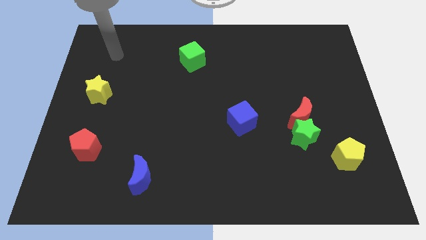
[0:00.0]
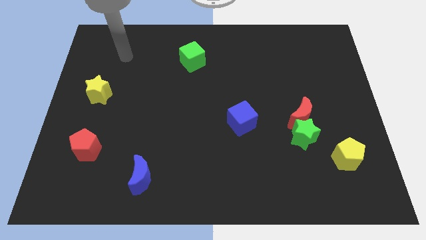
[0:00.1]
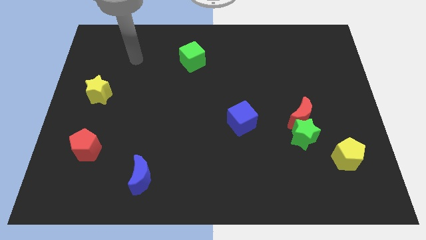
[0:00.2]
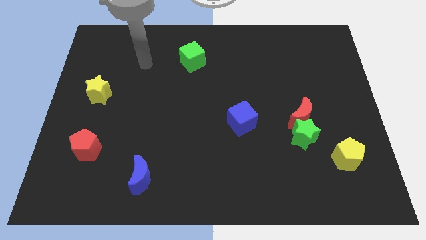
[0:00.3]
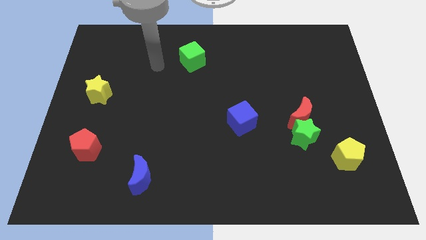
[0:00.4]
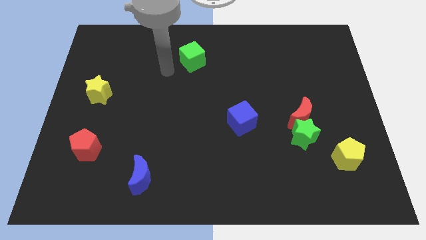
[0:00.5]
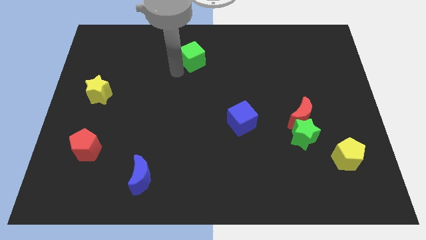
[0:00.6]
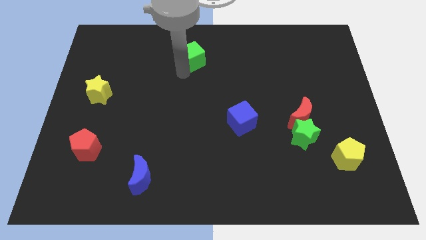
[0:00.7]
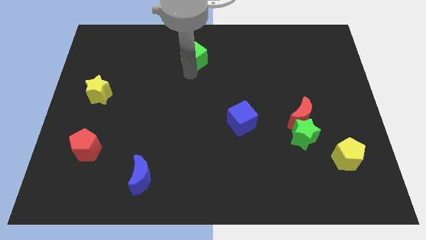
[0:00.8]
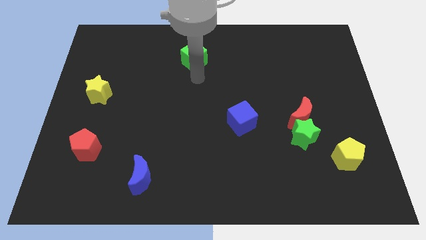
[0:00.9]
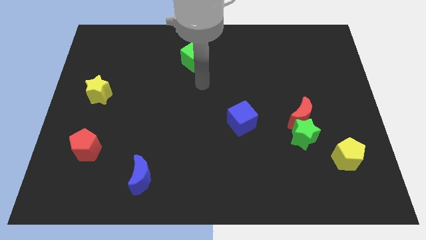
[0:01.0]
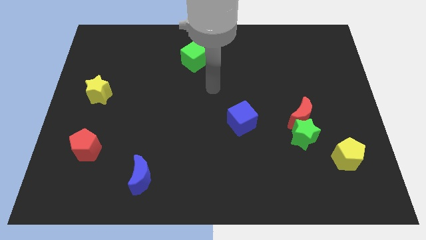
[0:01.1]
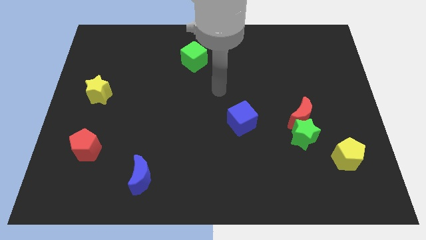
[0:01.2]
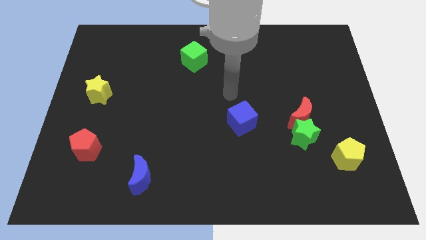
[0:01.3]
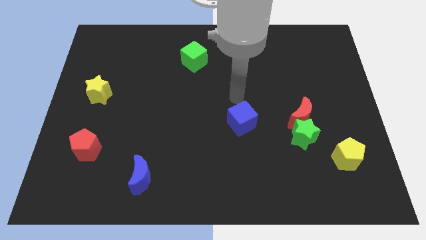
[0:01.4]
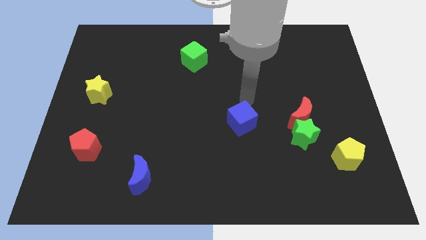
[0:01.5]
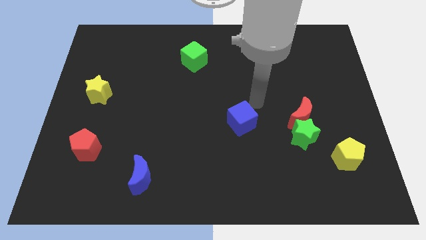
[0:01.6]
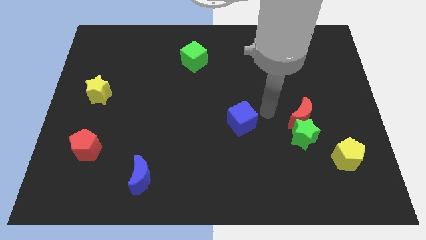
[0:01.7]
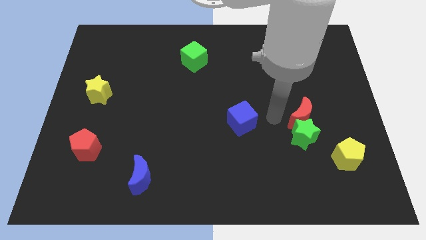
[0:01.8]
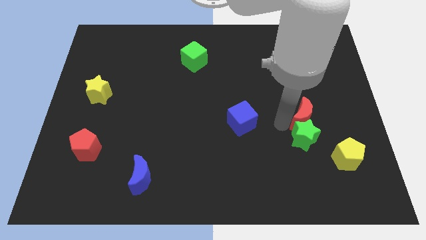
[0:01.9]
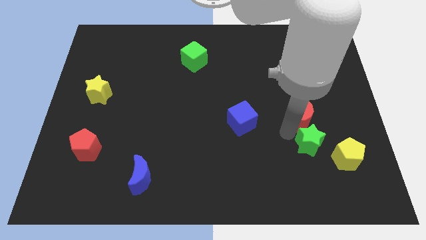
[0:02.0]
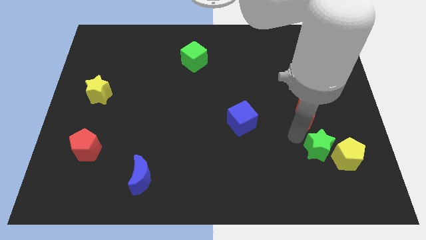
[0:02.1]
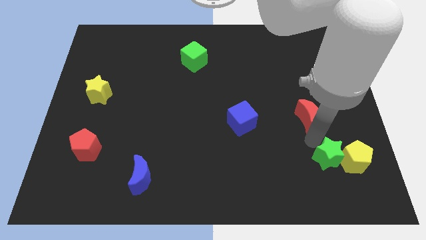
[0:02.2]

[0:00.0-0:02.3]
pull the red moon apart from the green star

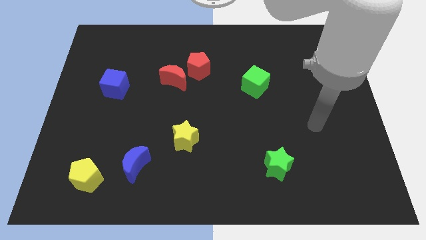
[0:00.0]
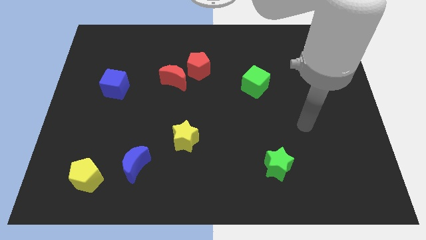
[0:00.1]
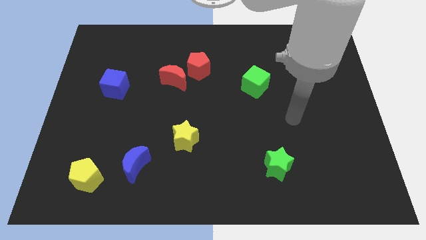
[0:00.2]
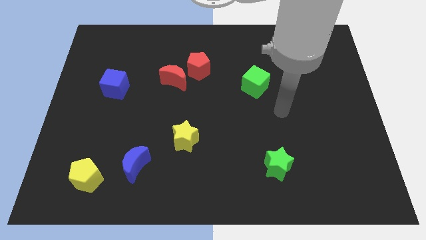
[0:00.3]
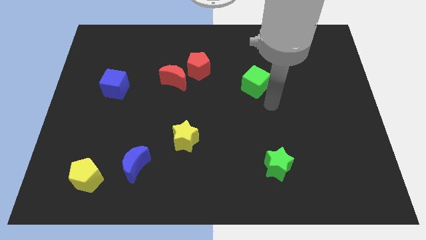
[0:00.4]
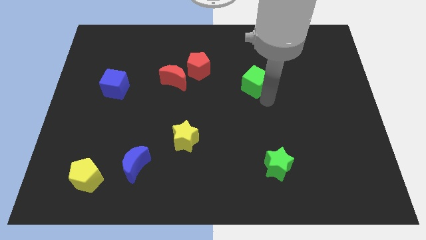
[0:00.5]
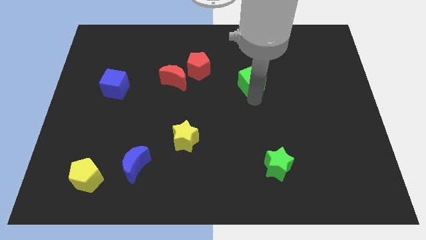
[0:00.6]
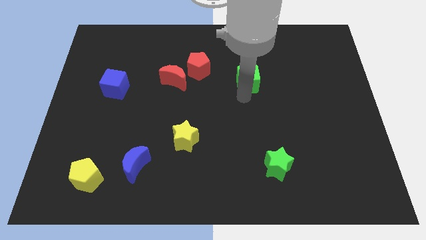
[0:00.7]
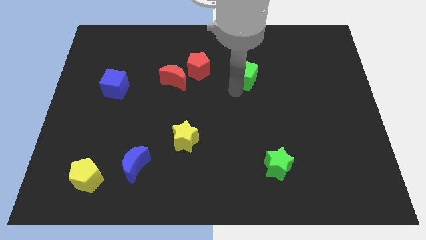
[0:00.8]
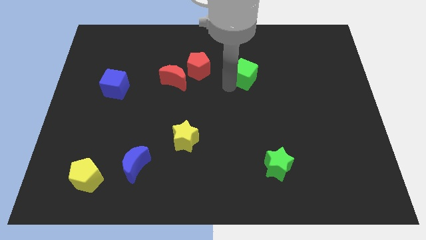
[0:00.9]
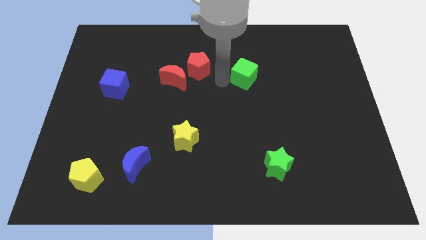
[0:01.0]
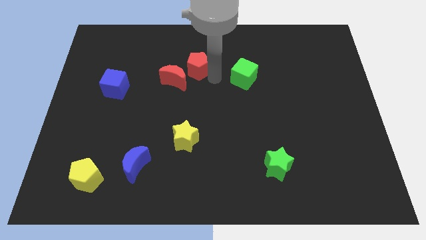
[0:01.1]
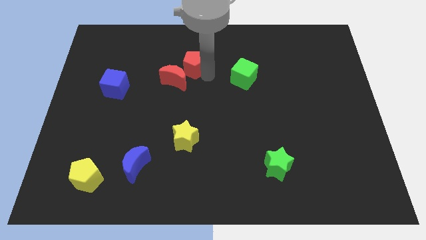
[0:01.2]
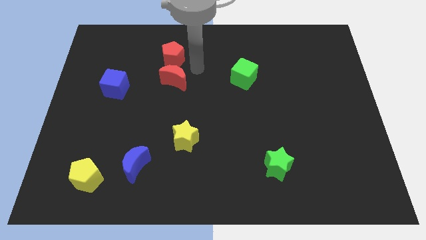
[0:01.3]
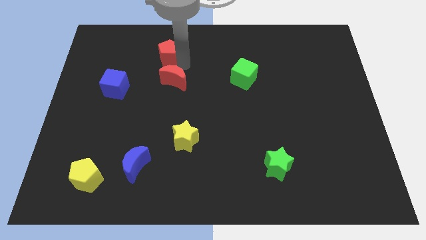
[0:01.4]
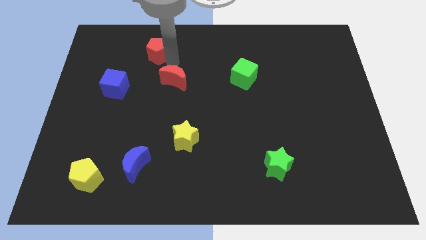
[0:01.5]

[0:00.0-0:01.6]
pull the red moon apart from the red pentagon

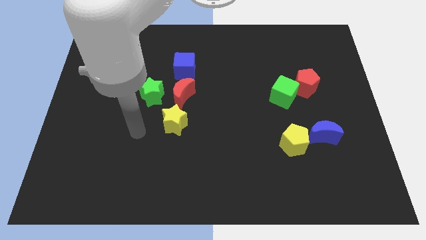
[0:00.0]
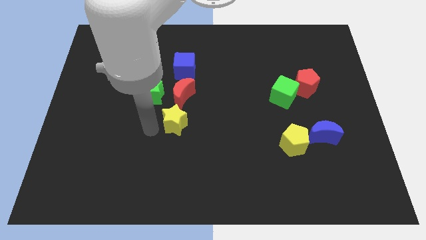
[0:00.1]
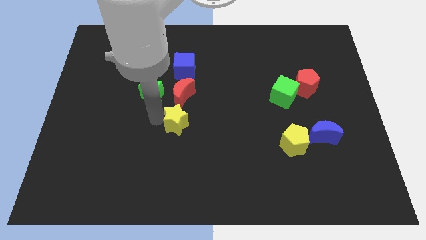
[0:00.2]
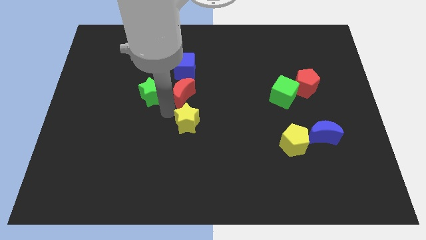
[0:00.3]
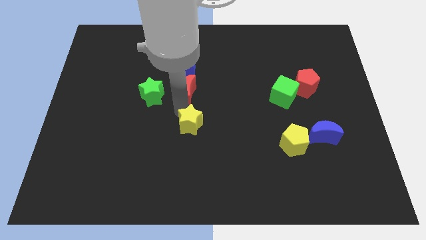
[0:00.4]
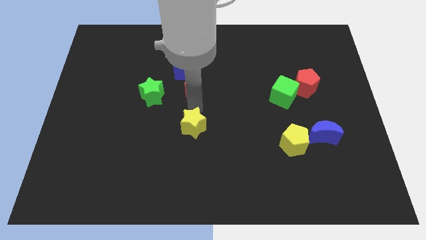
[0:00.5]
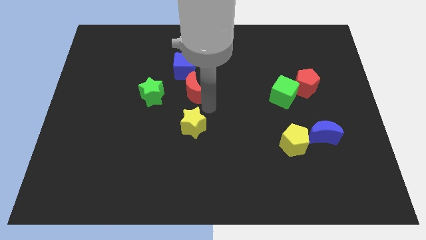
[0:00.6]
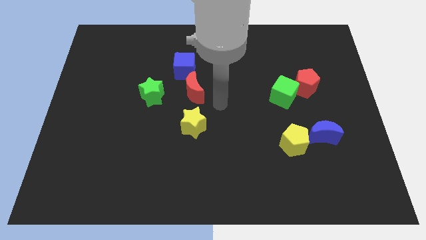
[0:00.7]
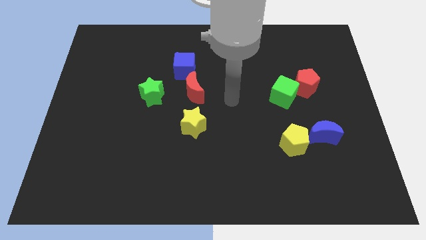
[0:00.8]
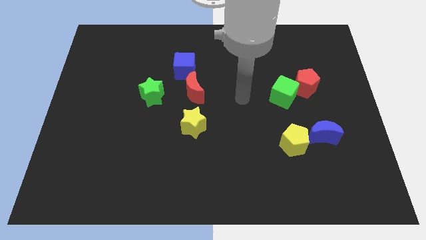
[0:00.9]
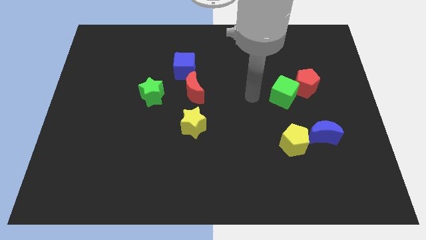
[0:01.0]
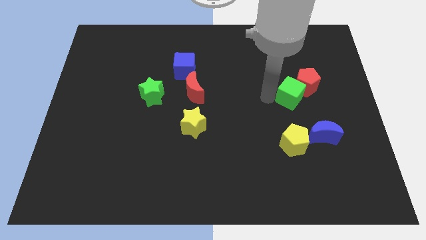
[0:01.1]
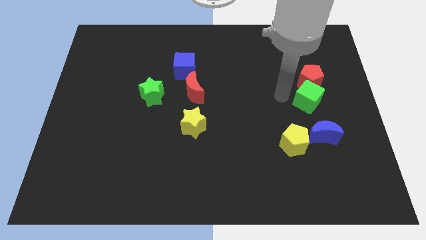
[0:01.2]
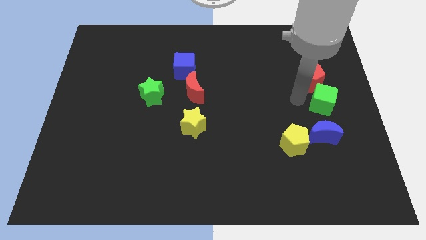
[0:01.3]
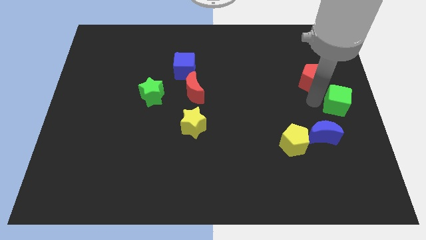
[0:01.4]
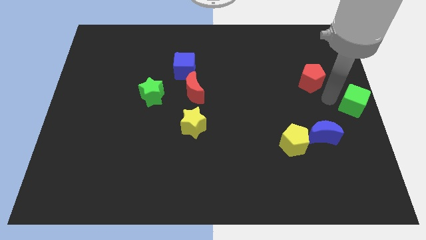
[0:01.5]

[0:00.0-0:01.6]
pull the red pentagon apart from the green cube

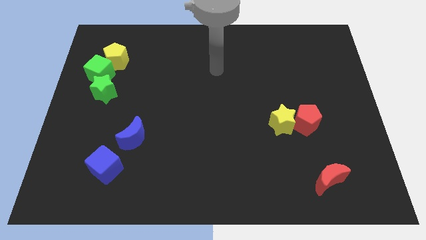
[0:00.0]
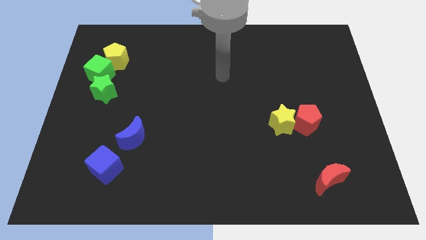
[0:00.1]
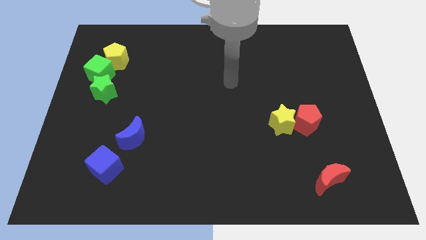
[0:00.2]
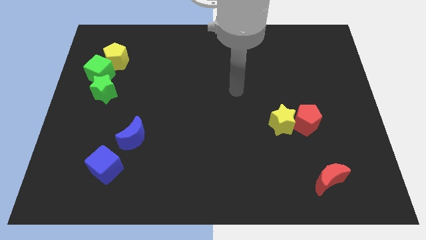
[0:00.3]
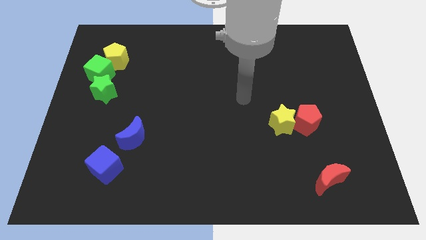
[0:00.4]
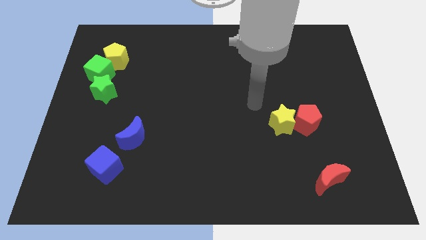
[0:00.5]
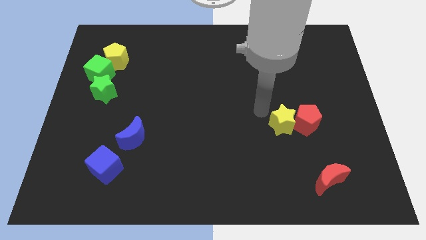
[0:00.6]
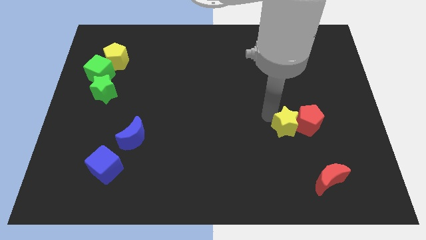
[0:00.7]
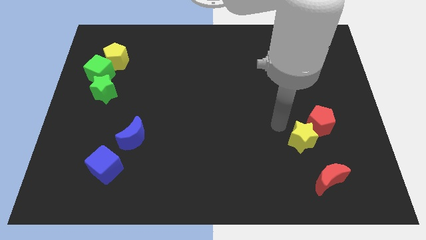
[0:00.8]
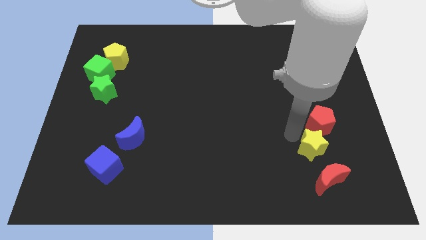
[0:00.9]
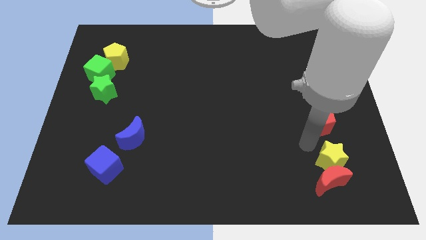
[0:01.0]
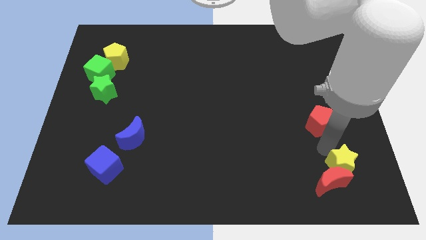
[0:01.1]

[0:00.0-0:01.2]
pull the red pentagon apart from the yellow star

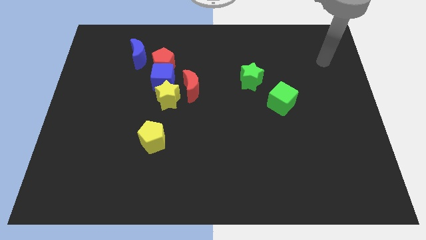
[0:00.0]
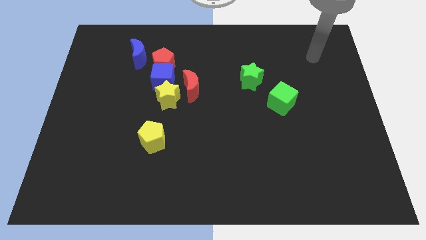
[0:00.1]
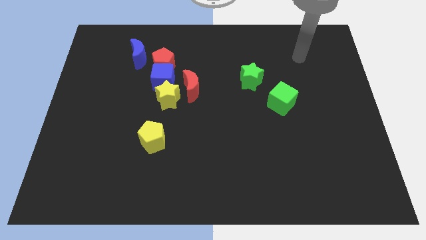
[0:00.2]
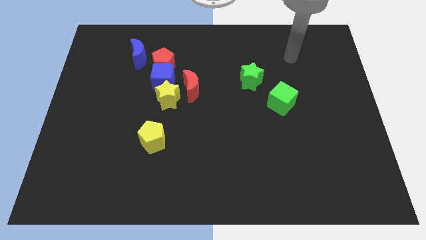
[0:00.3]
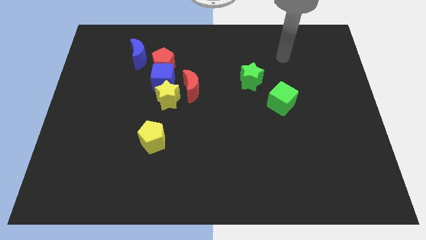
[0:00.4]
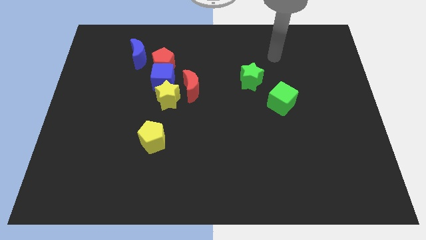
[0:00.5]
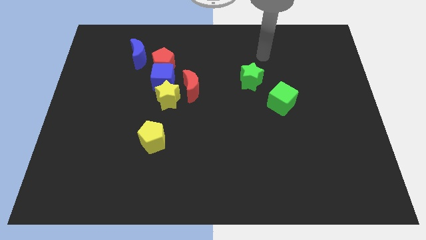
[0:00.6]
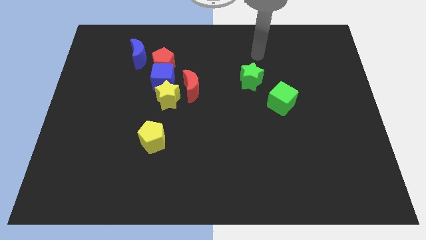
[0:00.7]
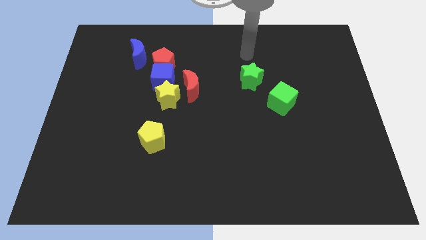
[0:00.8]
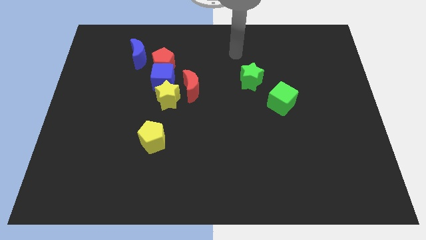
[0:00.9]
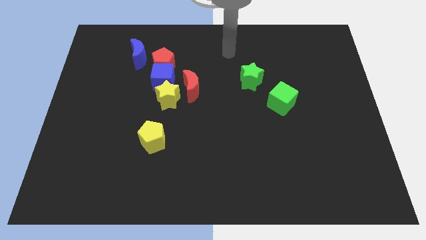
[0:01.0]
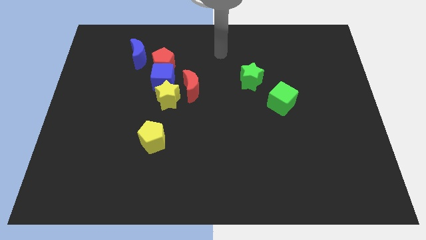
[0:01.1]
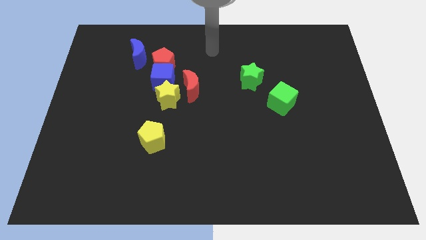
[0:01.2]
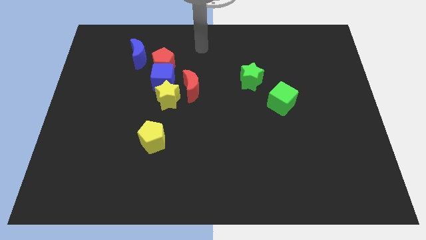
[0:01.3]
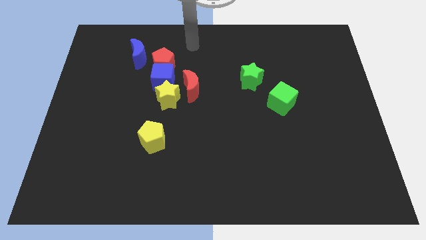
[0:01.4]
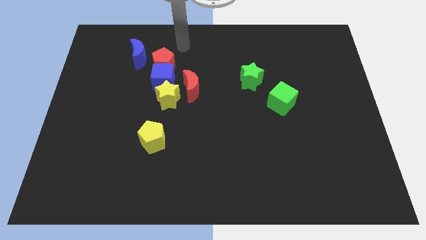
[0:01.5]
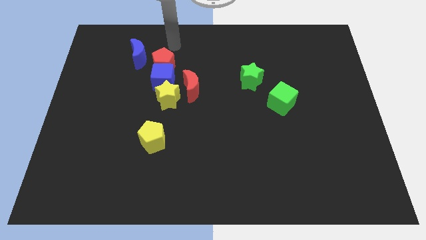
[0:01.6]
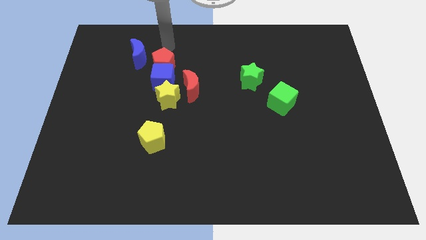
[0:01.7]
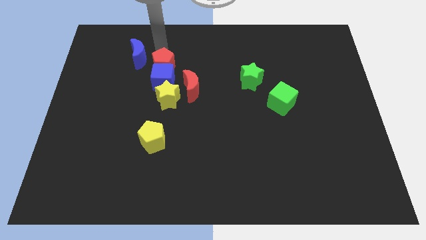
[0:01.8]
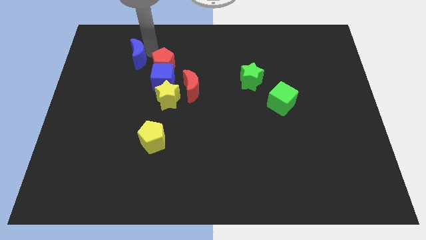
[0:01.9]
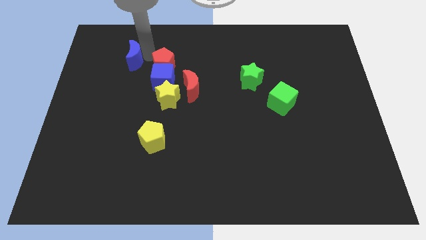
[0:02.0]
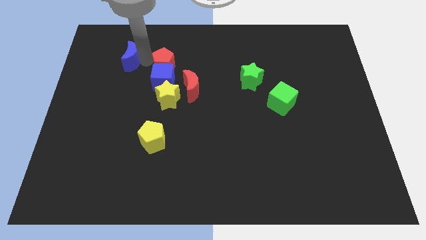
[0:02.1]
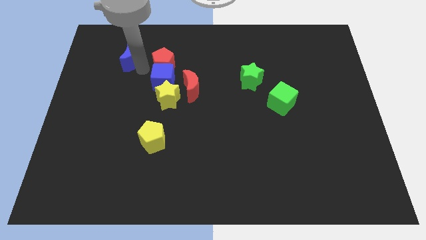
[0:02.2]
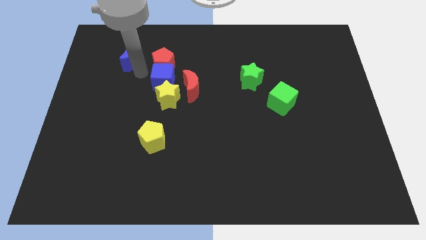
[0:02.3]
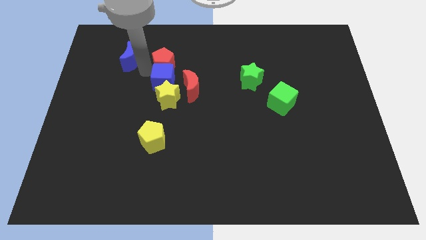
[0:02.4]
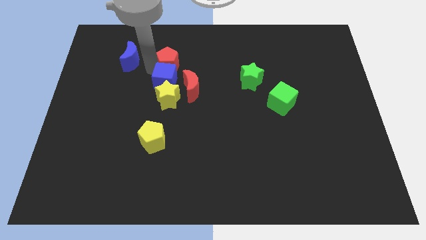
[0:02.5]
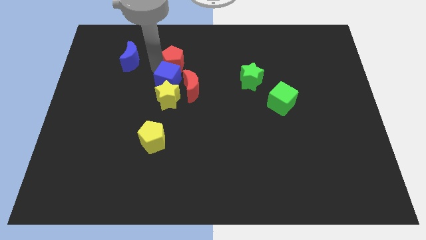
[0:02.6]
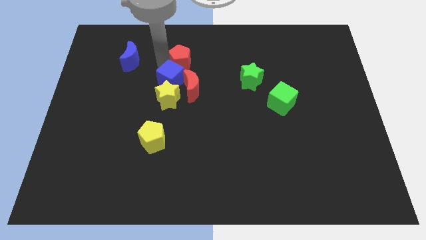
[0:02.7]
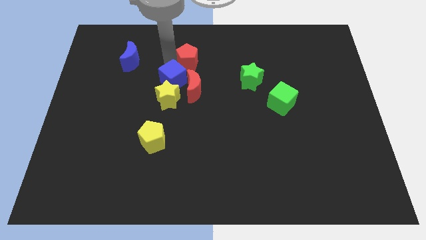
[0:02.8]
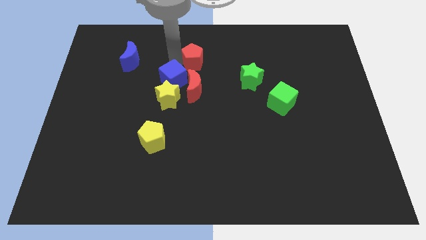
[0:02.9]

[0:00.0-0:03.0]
separate the red pentagon from the blue cube and blue moon
